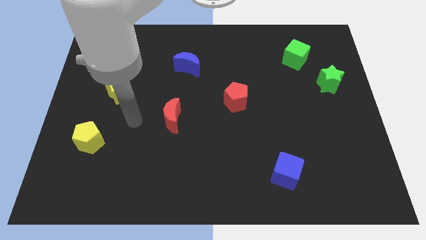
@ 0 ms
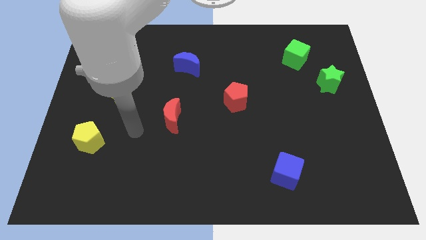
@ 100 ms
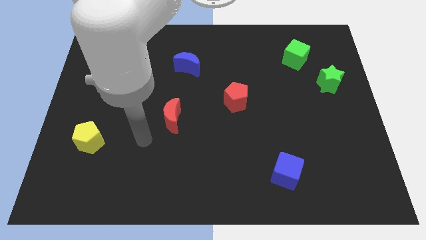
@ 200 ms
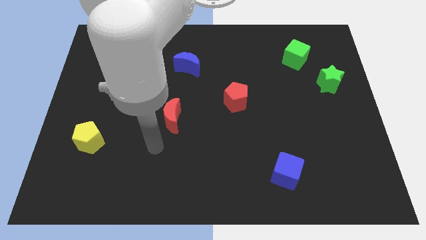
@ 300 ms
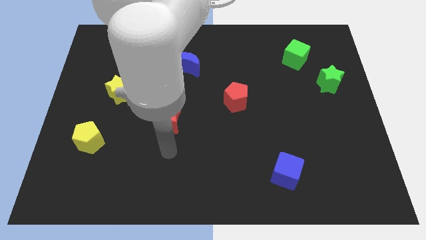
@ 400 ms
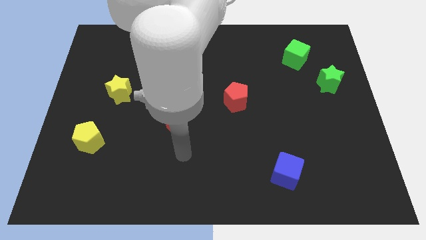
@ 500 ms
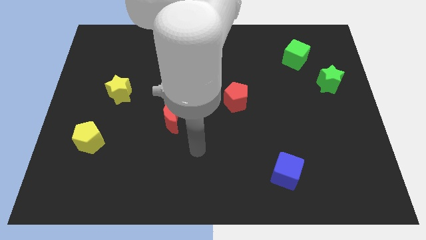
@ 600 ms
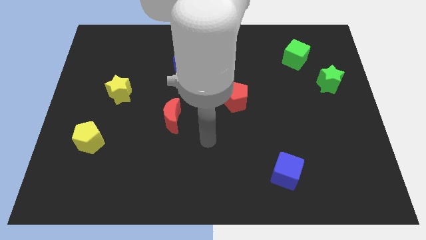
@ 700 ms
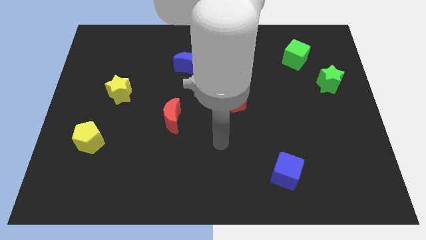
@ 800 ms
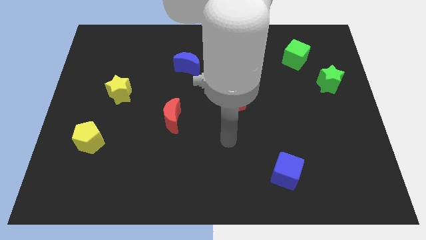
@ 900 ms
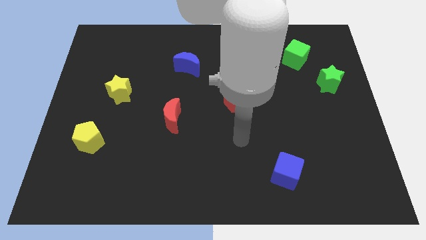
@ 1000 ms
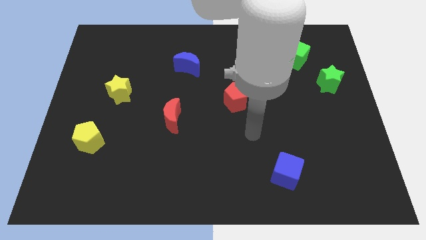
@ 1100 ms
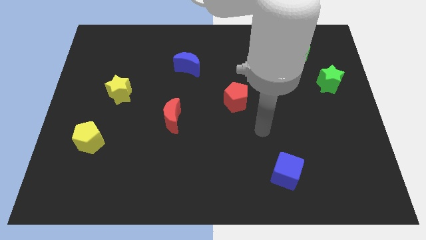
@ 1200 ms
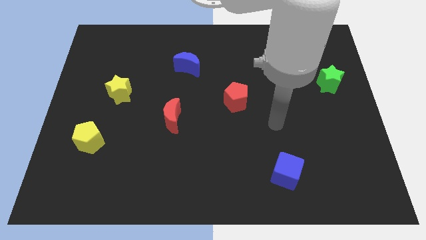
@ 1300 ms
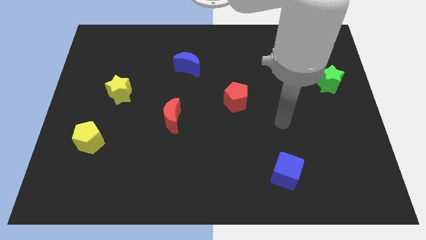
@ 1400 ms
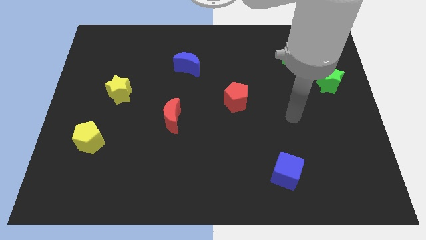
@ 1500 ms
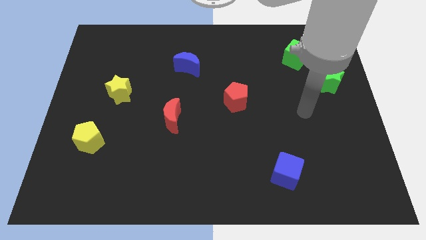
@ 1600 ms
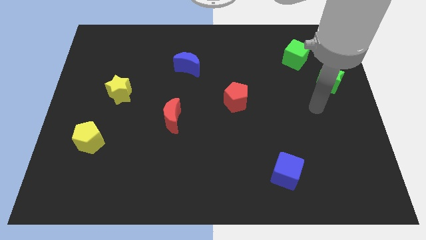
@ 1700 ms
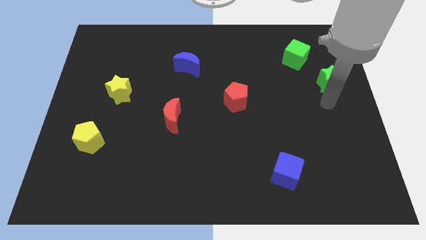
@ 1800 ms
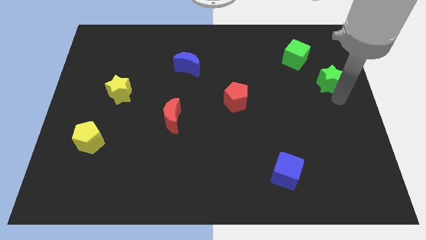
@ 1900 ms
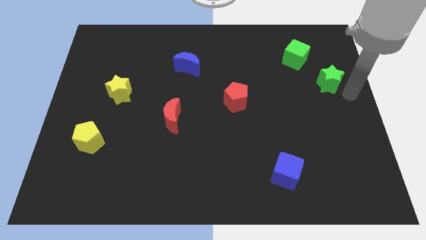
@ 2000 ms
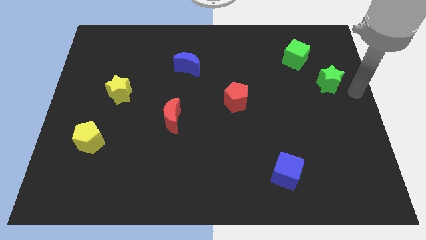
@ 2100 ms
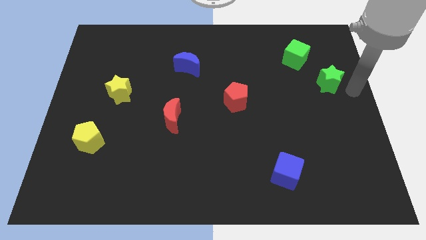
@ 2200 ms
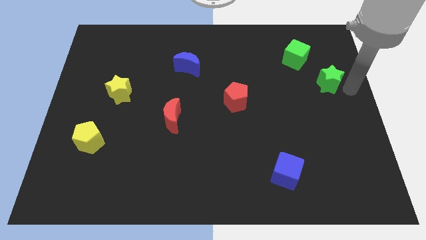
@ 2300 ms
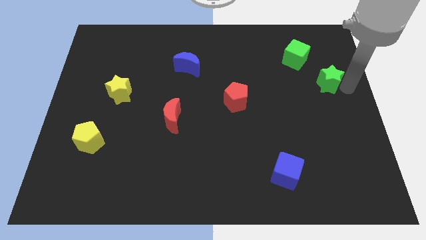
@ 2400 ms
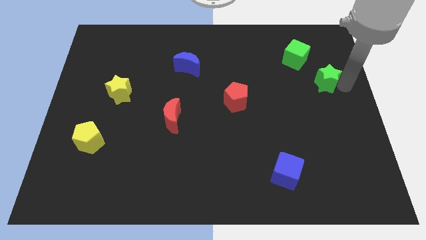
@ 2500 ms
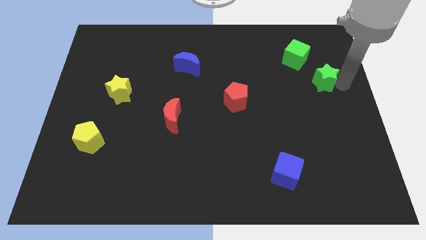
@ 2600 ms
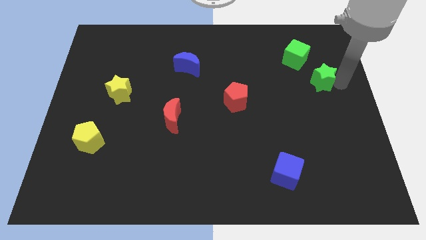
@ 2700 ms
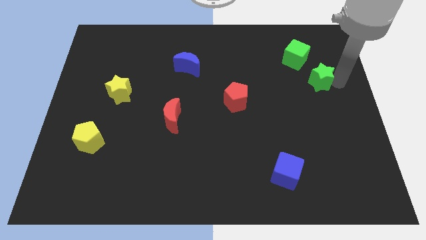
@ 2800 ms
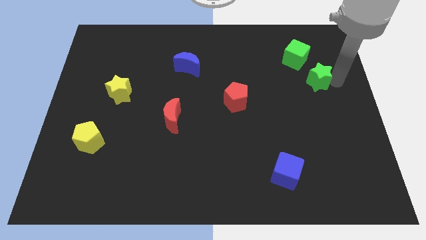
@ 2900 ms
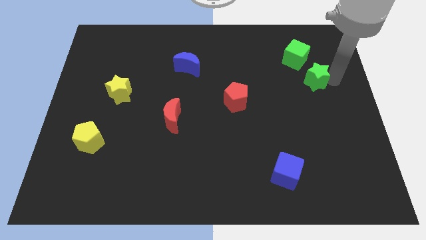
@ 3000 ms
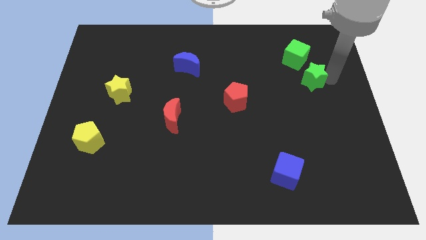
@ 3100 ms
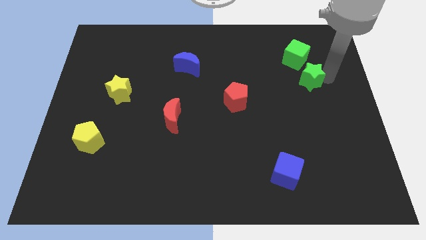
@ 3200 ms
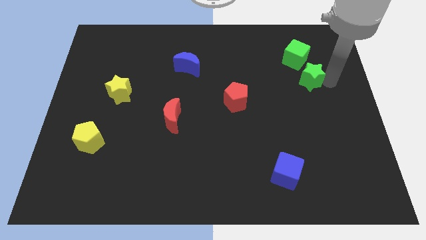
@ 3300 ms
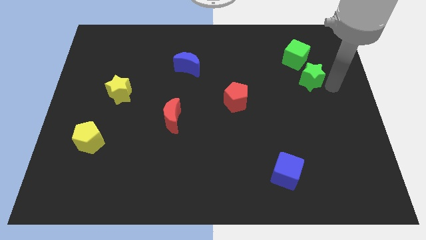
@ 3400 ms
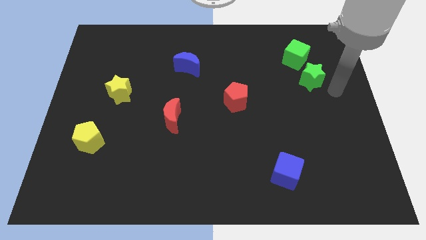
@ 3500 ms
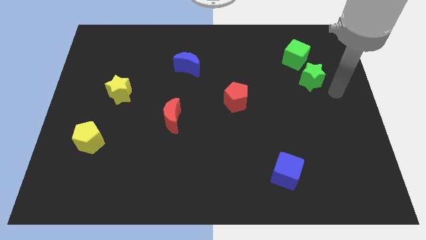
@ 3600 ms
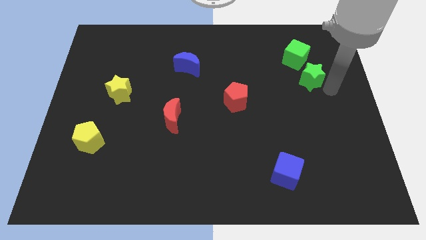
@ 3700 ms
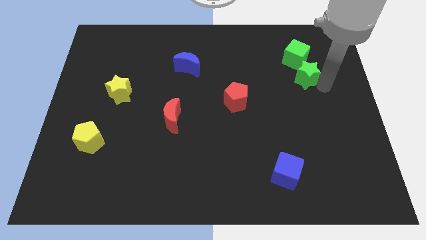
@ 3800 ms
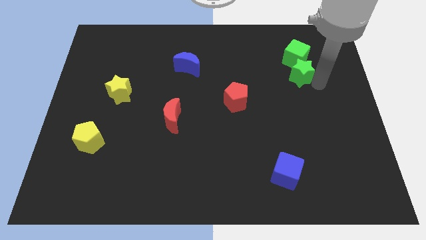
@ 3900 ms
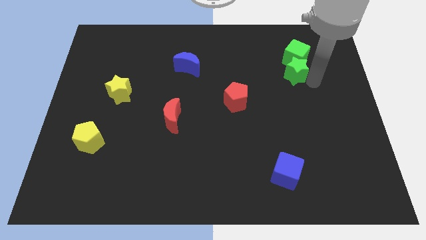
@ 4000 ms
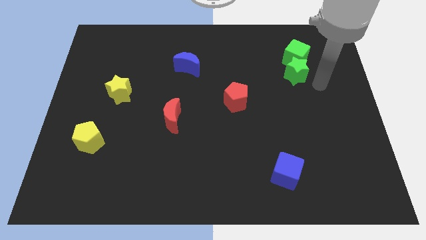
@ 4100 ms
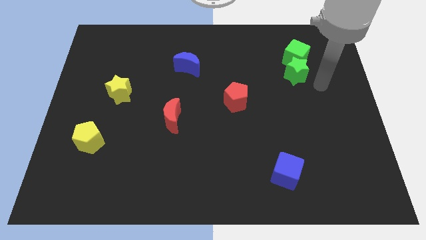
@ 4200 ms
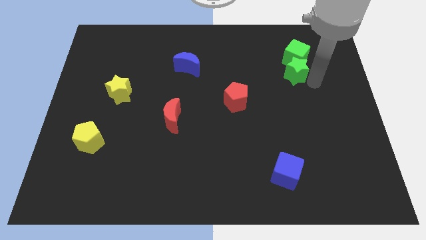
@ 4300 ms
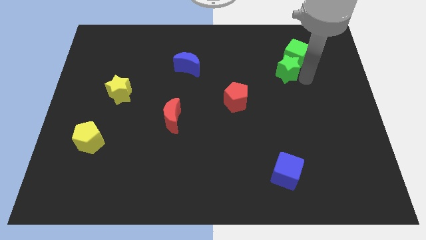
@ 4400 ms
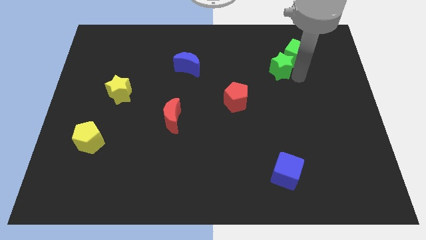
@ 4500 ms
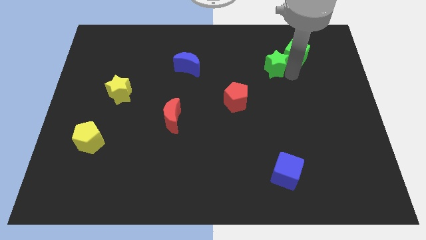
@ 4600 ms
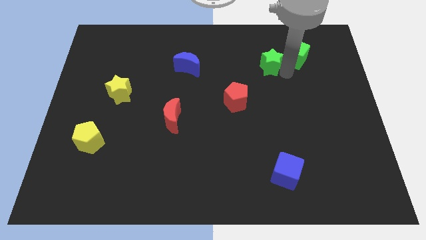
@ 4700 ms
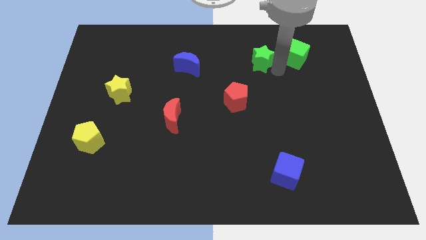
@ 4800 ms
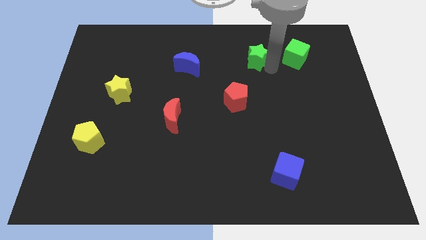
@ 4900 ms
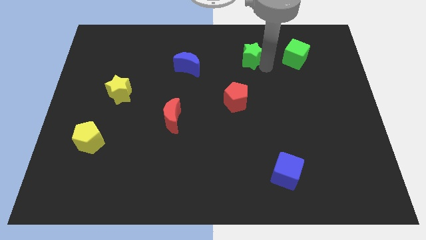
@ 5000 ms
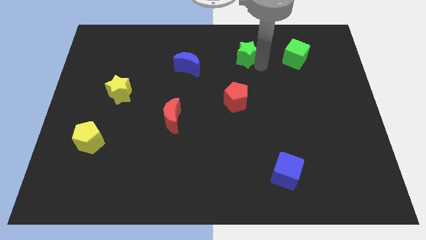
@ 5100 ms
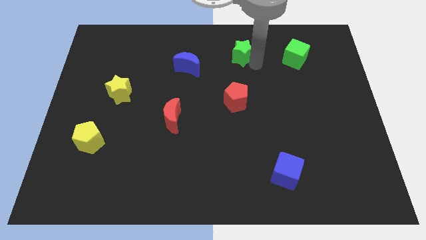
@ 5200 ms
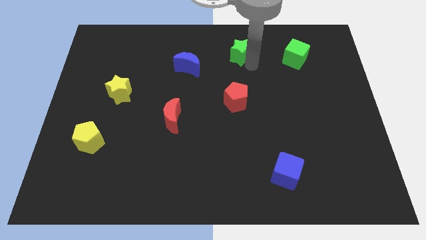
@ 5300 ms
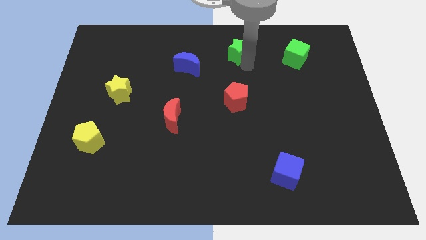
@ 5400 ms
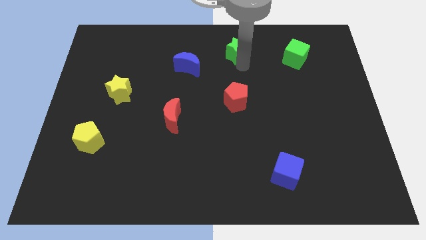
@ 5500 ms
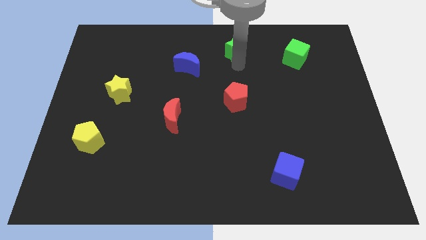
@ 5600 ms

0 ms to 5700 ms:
put the green star to the towards your base
